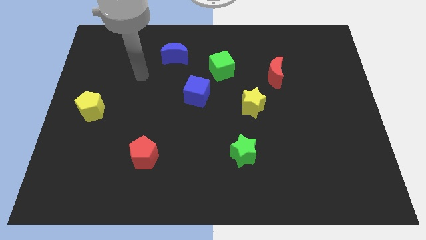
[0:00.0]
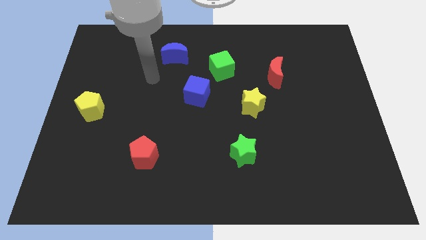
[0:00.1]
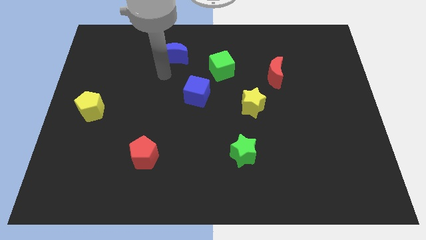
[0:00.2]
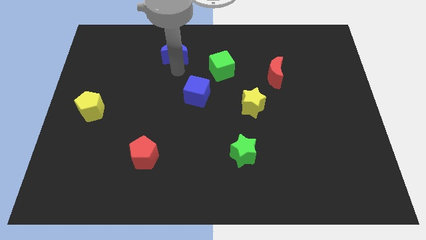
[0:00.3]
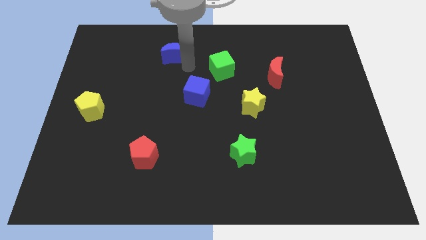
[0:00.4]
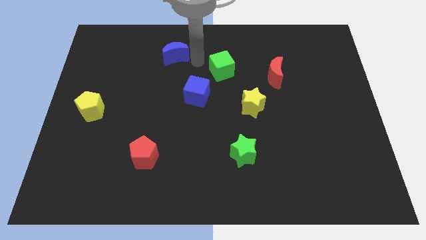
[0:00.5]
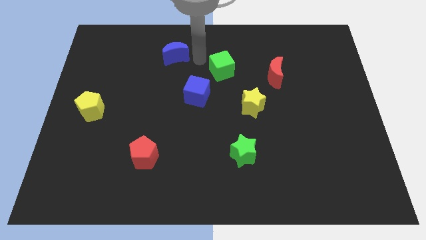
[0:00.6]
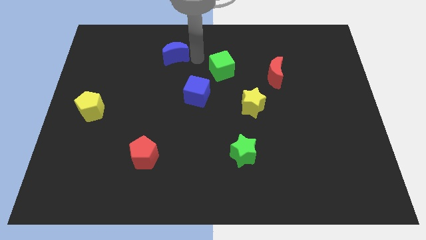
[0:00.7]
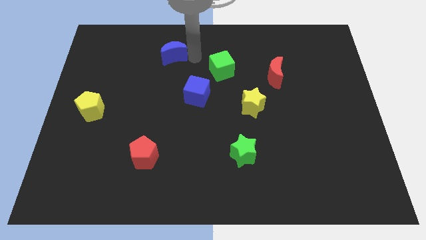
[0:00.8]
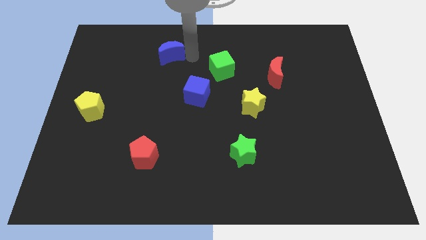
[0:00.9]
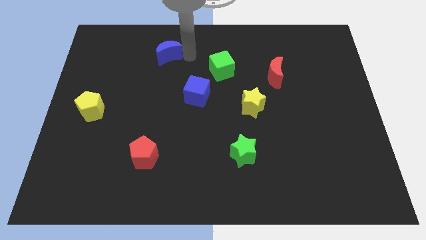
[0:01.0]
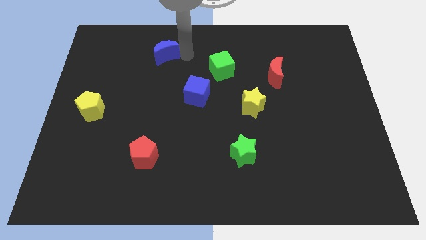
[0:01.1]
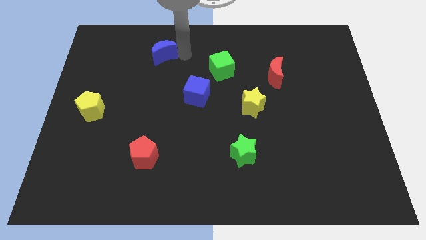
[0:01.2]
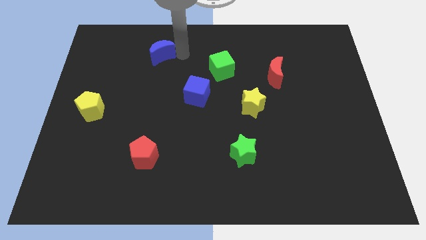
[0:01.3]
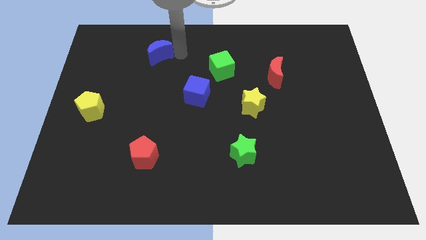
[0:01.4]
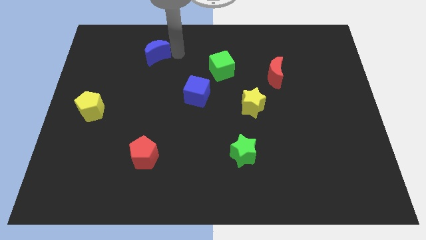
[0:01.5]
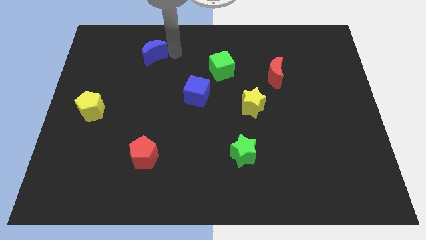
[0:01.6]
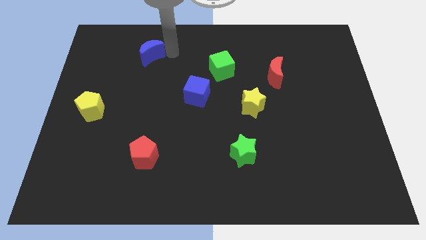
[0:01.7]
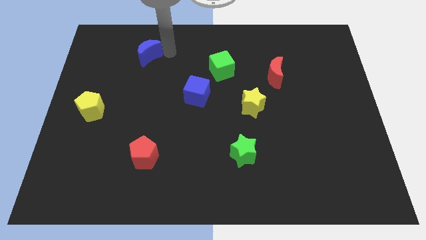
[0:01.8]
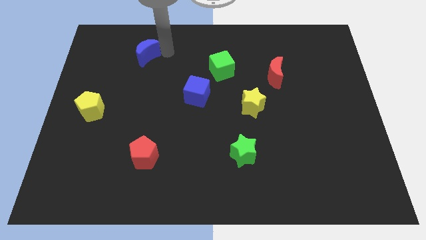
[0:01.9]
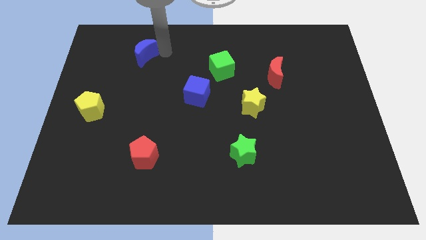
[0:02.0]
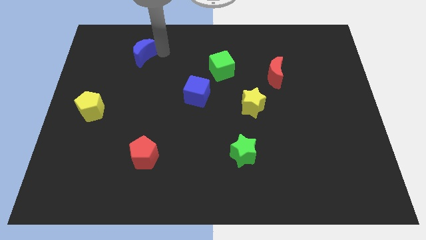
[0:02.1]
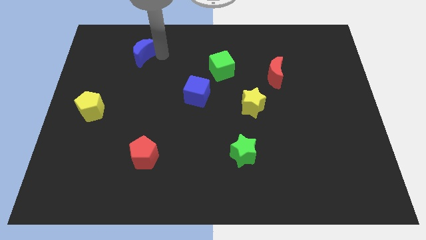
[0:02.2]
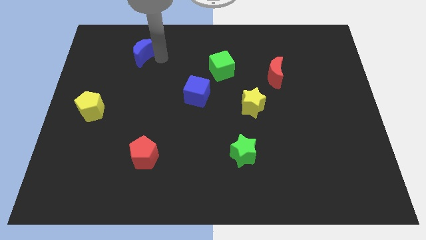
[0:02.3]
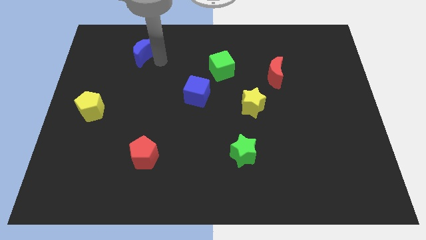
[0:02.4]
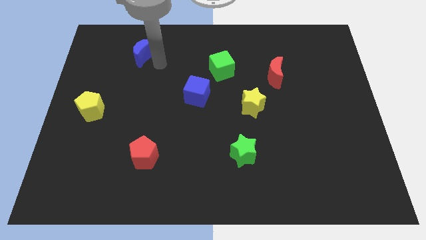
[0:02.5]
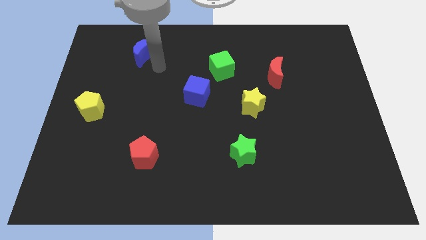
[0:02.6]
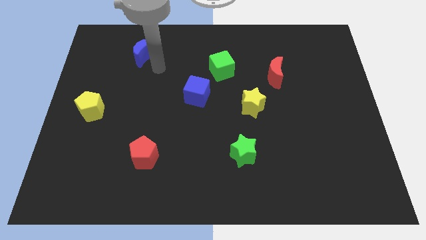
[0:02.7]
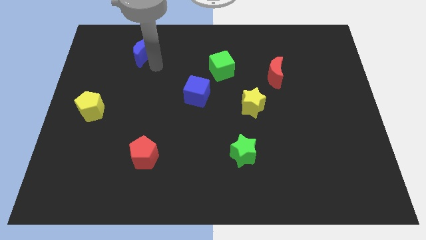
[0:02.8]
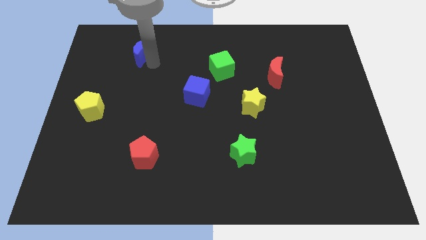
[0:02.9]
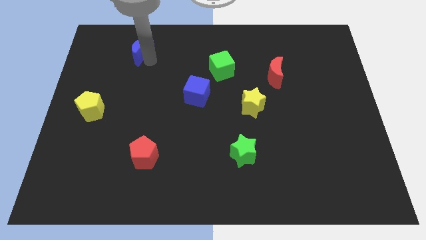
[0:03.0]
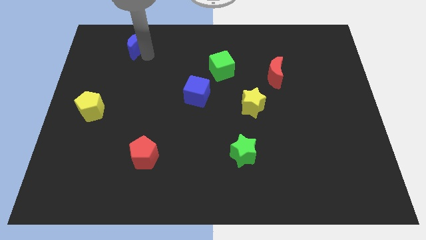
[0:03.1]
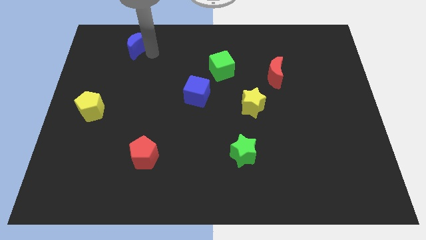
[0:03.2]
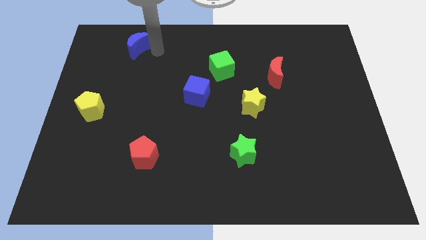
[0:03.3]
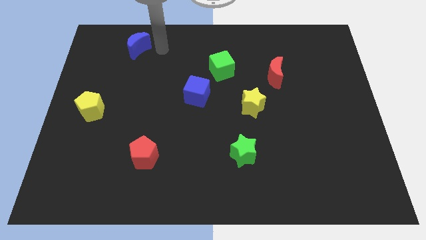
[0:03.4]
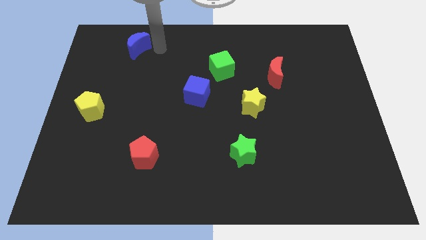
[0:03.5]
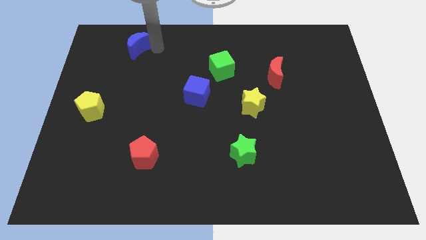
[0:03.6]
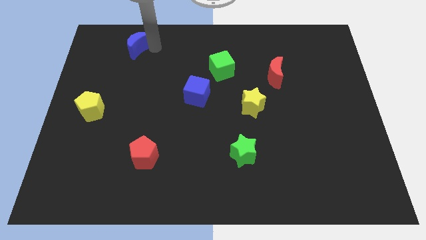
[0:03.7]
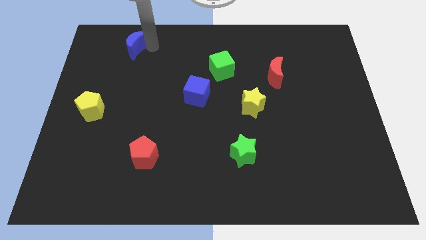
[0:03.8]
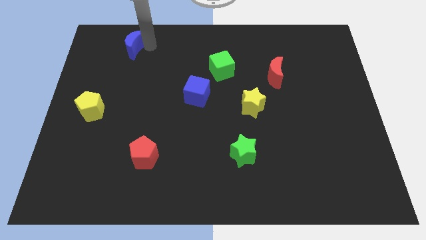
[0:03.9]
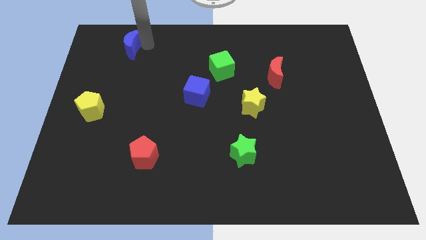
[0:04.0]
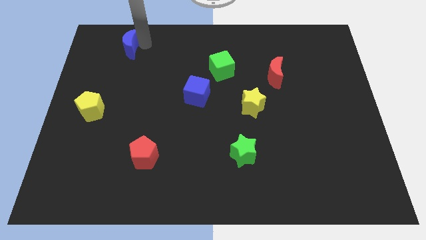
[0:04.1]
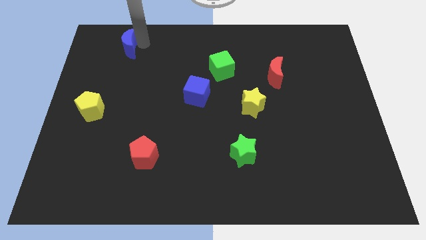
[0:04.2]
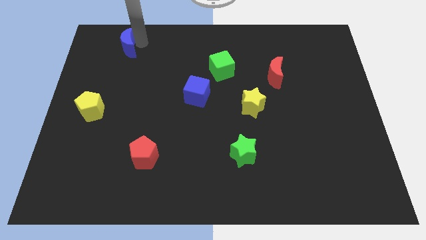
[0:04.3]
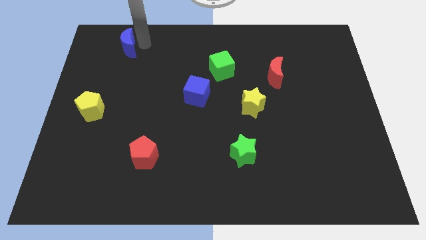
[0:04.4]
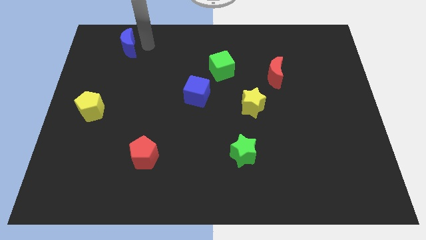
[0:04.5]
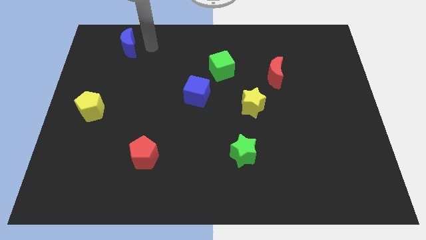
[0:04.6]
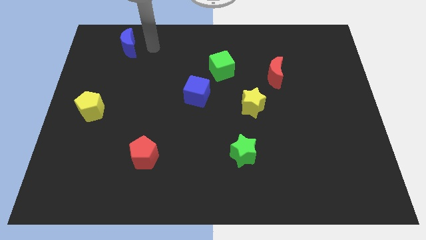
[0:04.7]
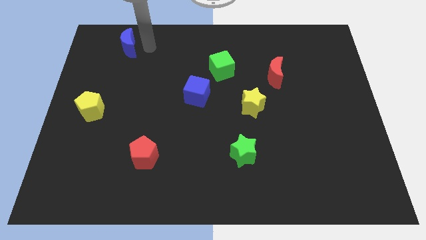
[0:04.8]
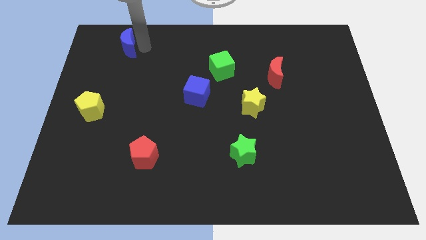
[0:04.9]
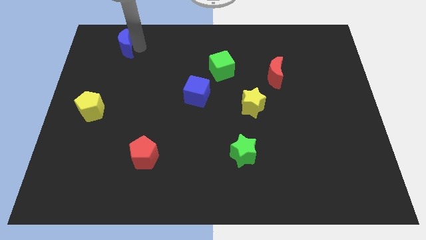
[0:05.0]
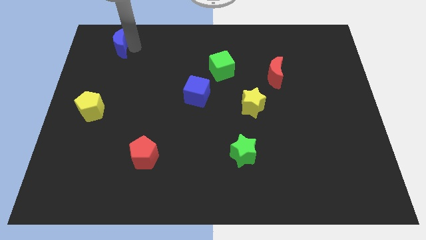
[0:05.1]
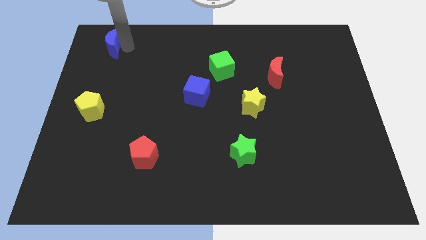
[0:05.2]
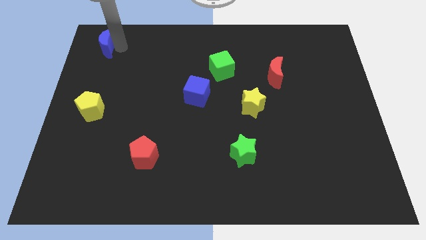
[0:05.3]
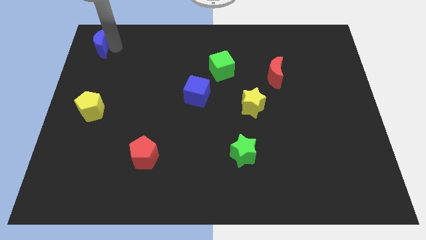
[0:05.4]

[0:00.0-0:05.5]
put the blue moon to the top left corner

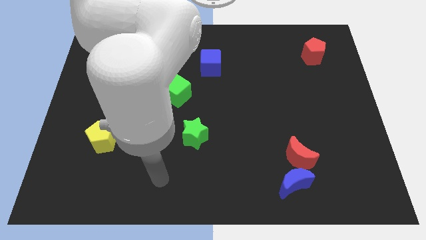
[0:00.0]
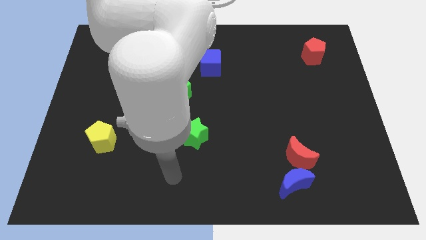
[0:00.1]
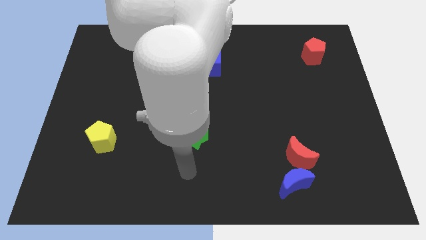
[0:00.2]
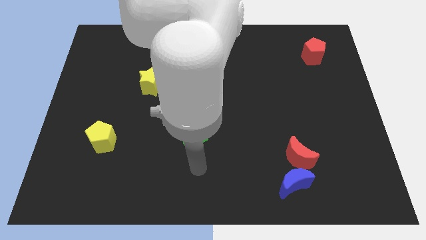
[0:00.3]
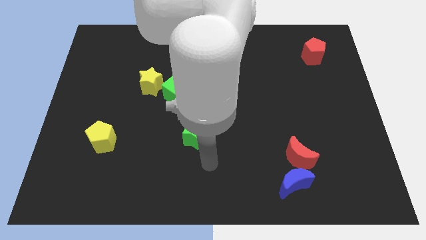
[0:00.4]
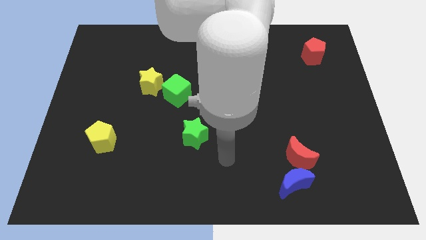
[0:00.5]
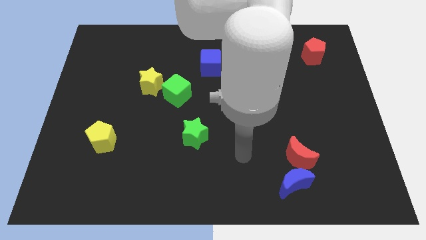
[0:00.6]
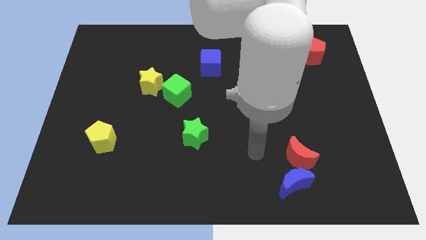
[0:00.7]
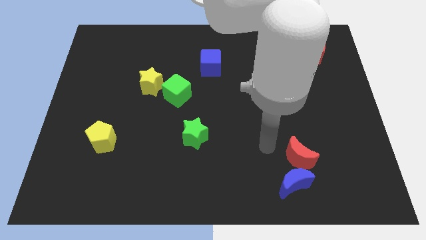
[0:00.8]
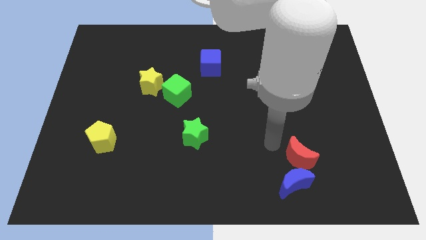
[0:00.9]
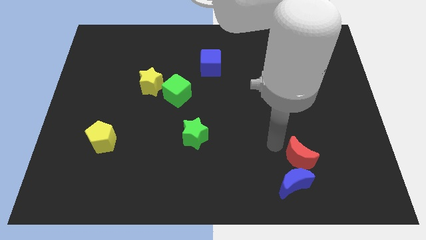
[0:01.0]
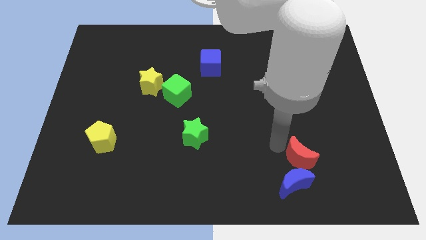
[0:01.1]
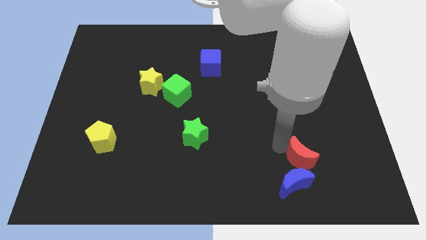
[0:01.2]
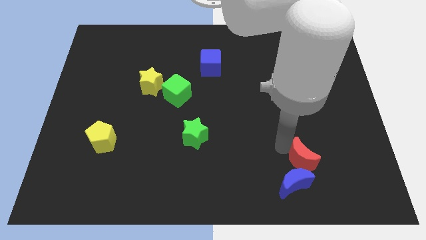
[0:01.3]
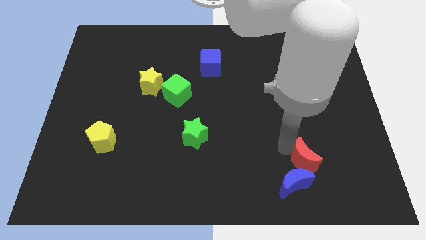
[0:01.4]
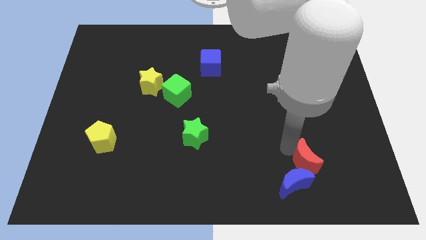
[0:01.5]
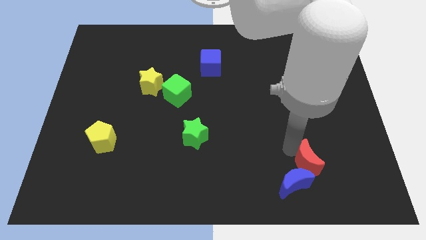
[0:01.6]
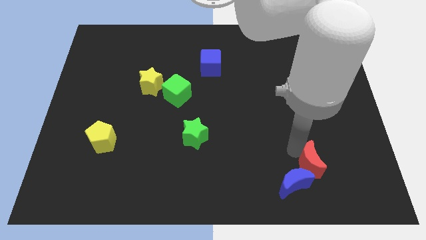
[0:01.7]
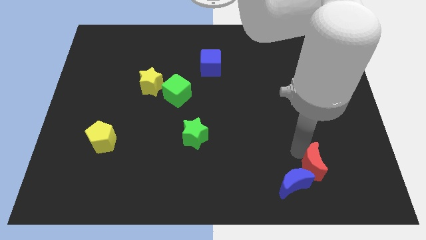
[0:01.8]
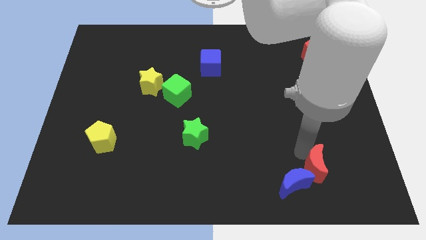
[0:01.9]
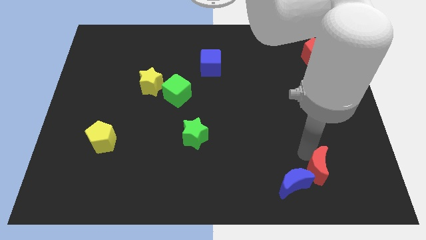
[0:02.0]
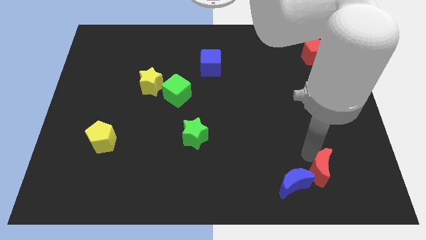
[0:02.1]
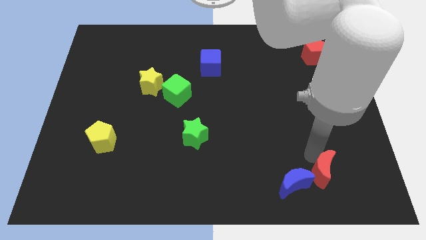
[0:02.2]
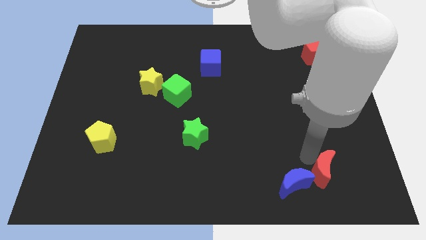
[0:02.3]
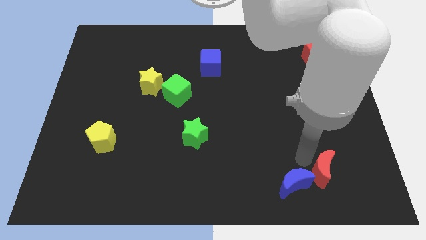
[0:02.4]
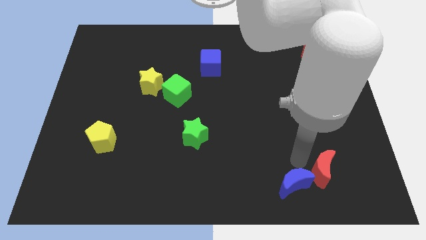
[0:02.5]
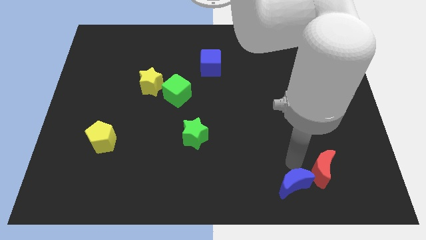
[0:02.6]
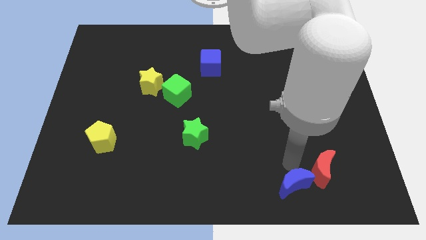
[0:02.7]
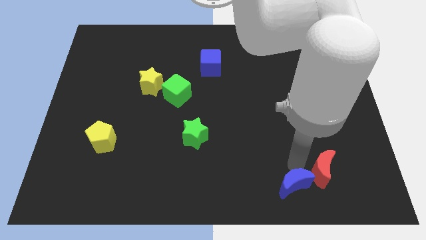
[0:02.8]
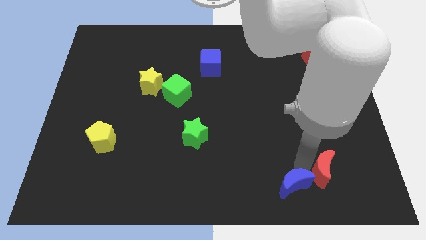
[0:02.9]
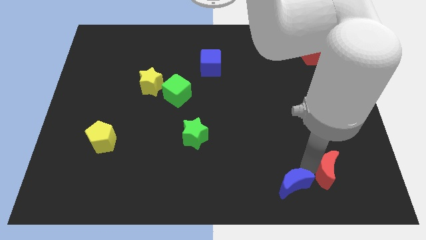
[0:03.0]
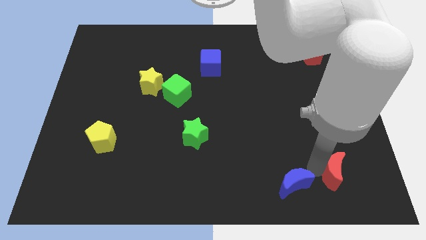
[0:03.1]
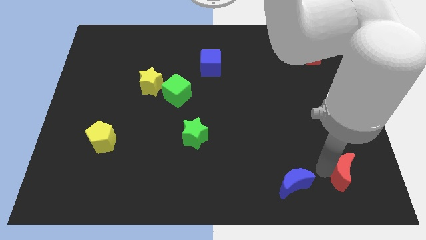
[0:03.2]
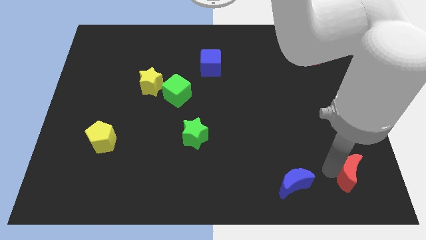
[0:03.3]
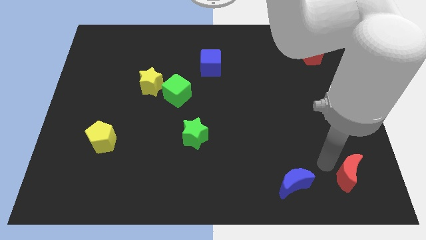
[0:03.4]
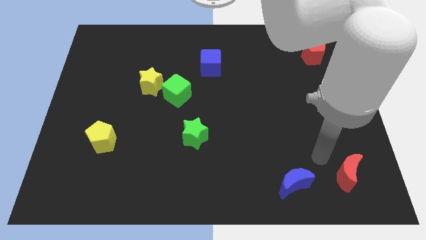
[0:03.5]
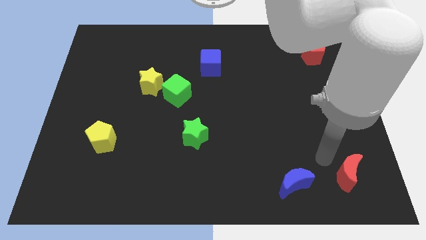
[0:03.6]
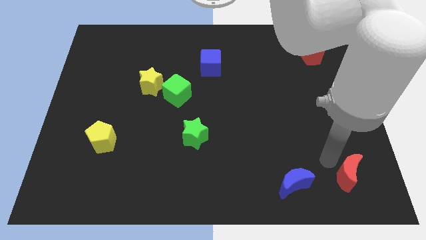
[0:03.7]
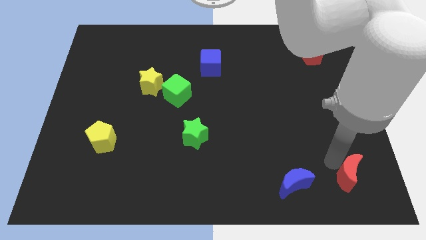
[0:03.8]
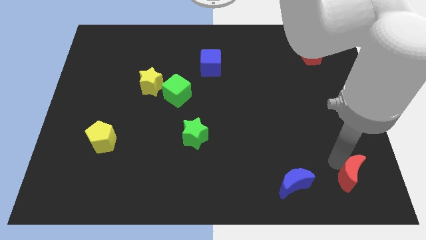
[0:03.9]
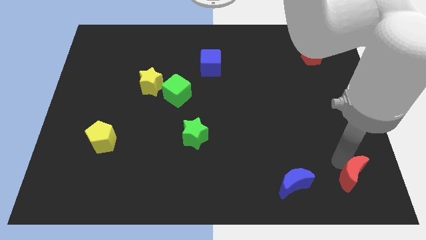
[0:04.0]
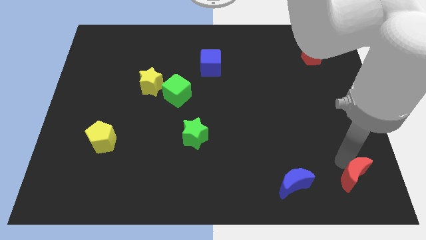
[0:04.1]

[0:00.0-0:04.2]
slide the red moon to the bottom right of the board
